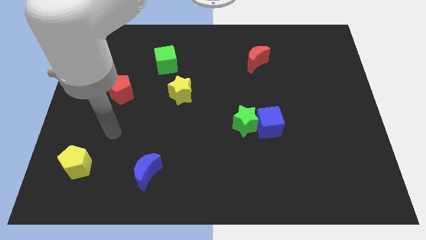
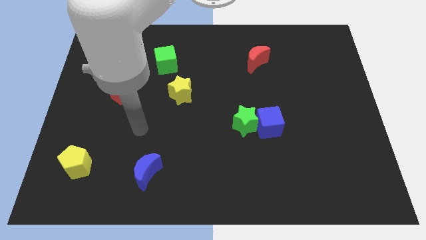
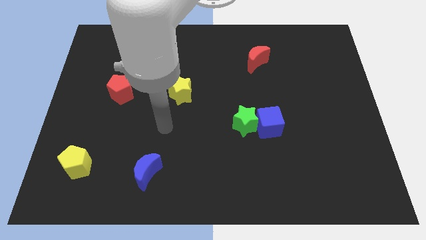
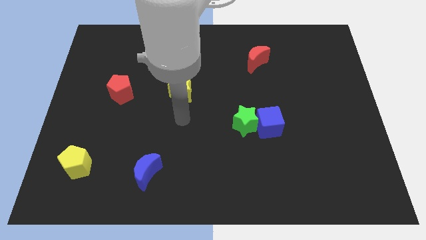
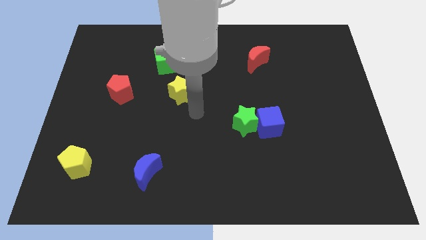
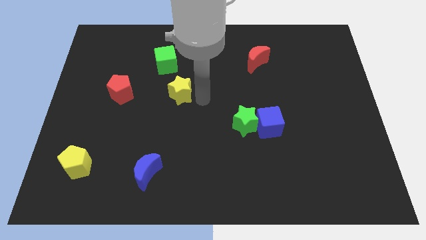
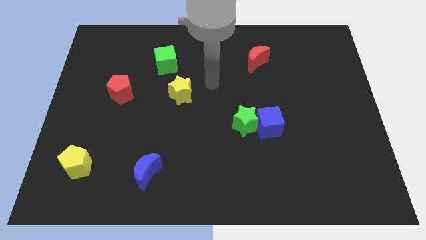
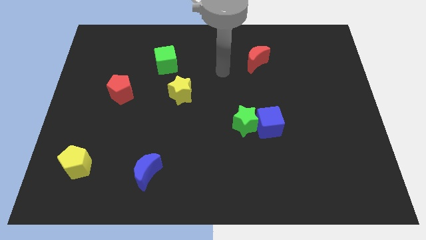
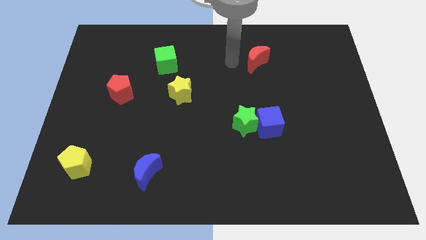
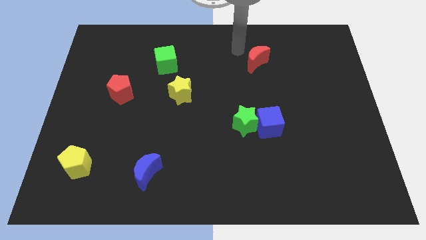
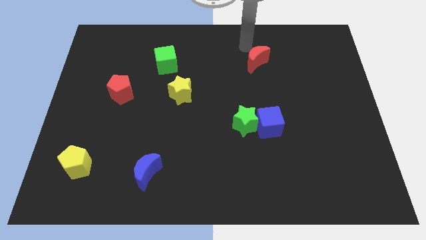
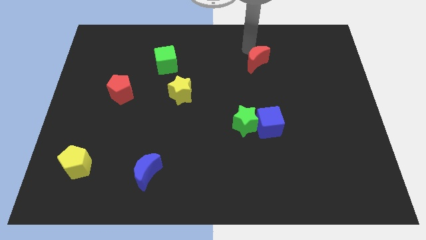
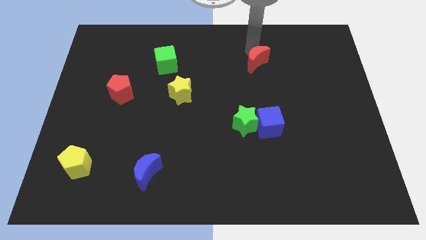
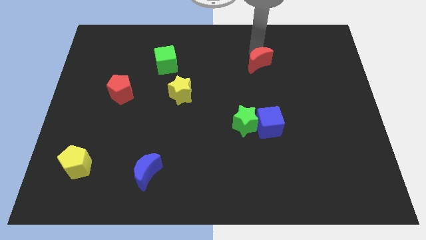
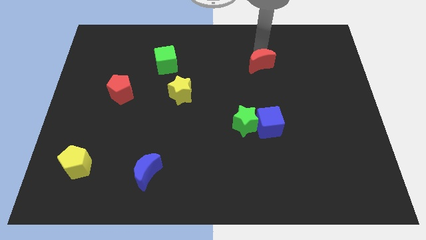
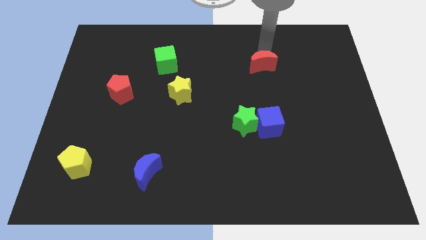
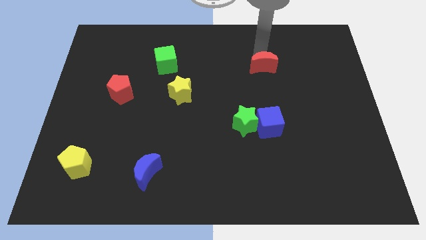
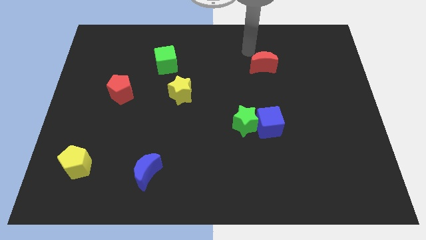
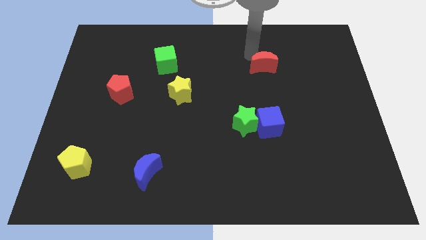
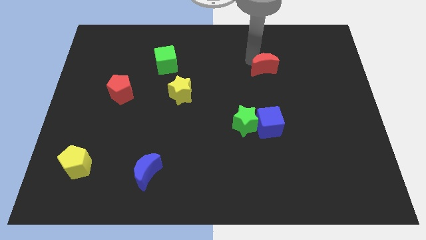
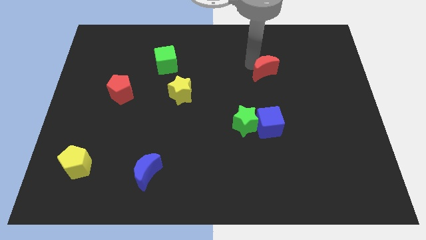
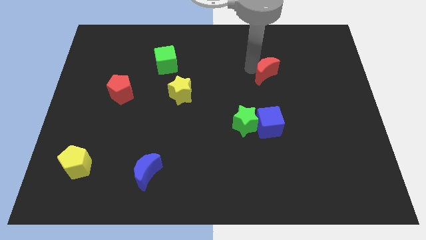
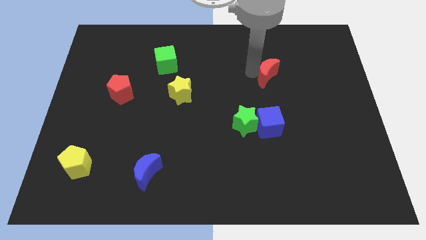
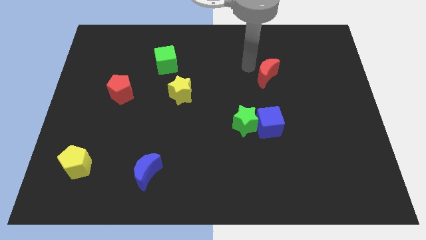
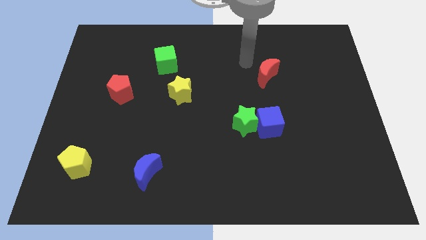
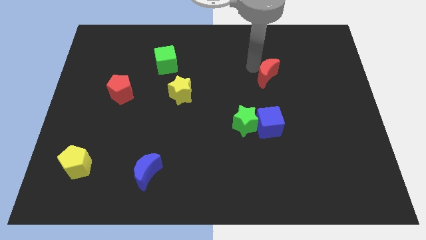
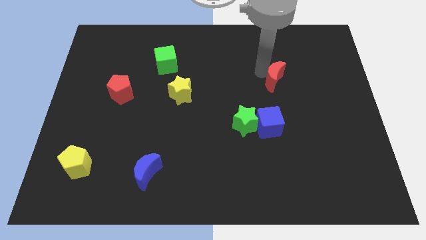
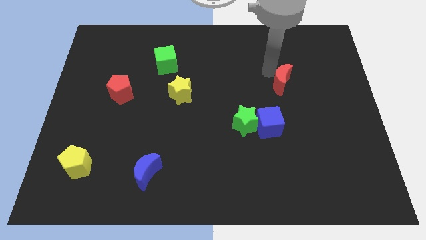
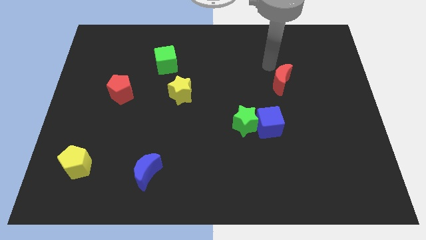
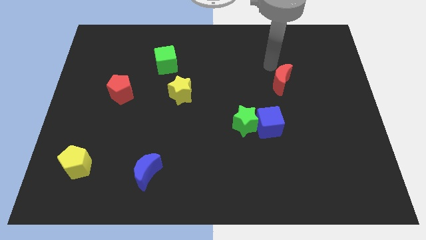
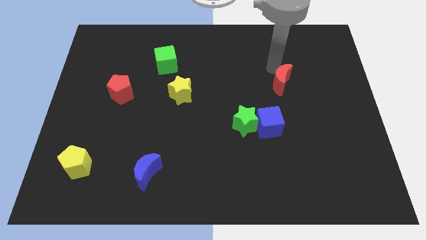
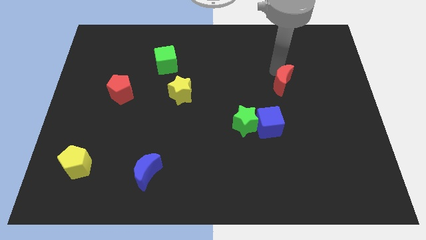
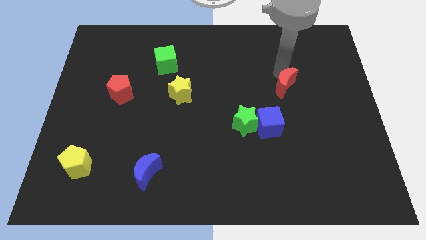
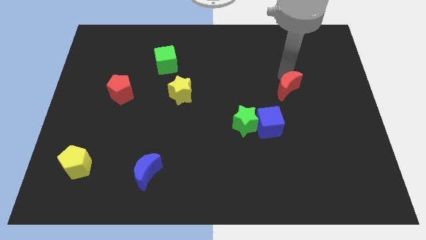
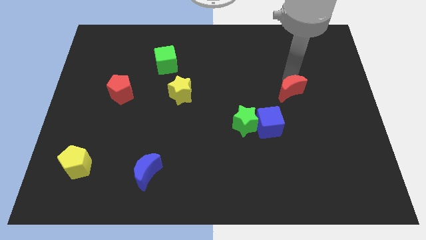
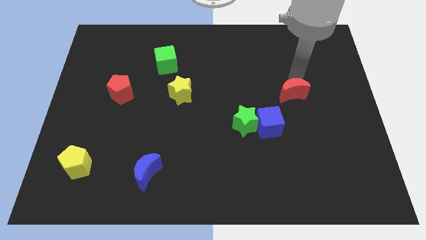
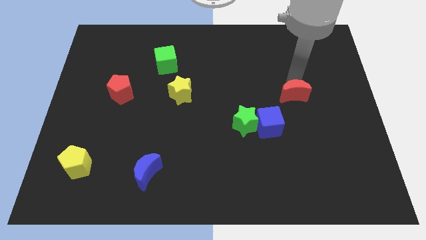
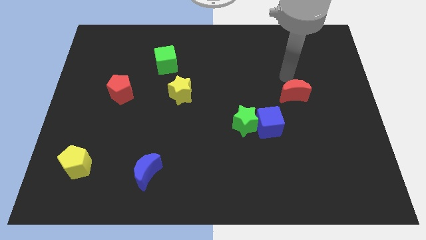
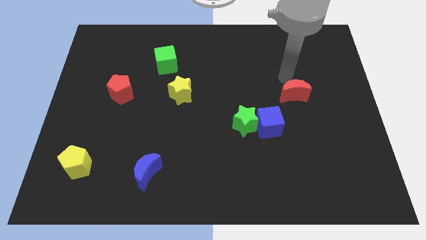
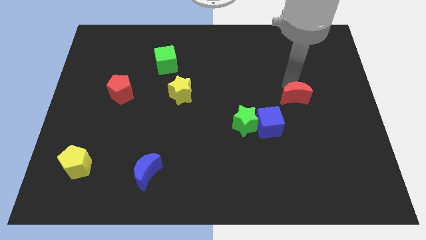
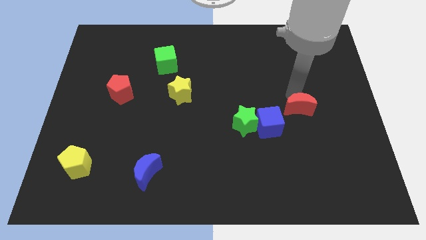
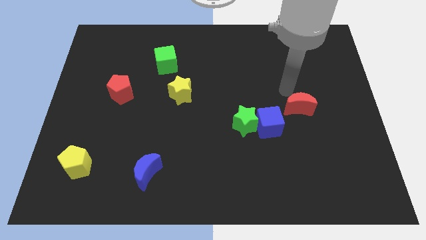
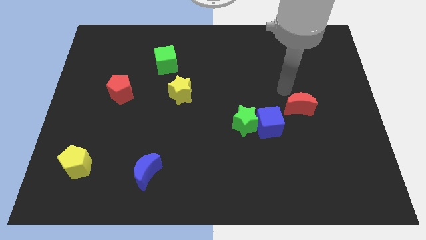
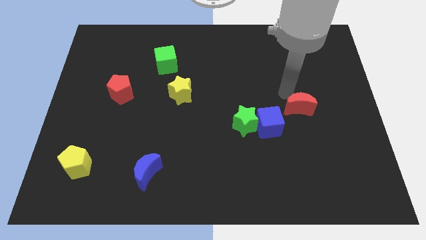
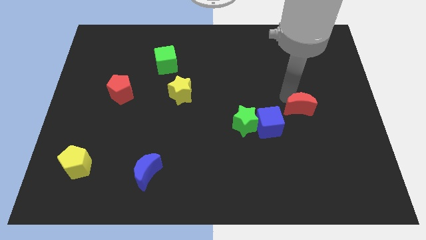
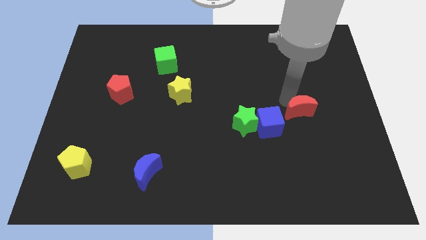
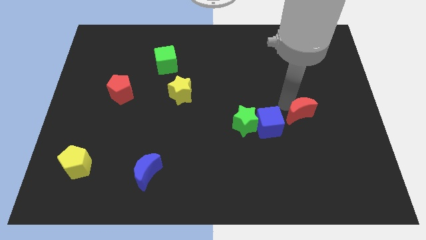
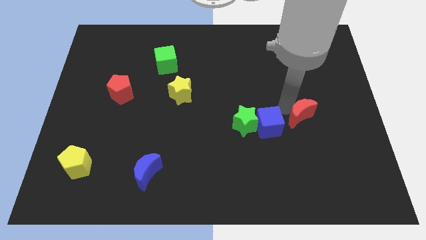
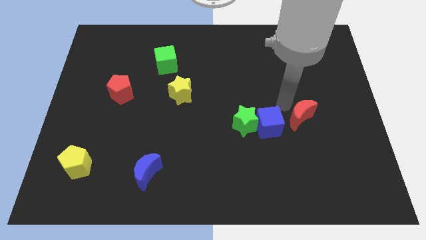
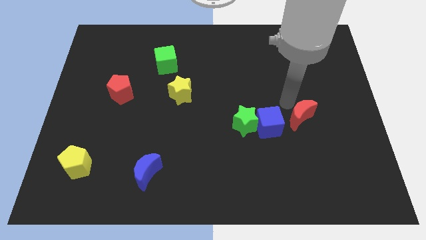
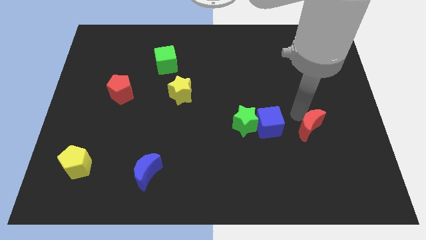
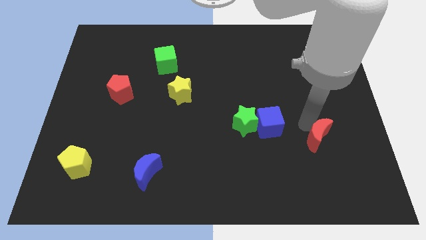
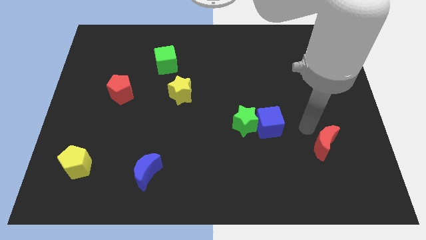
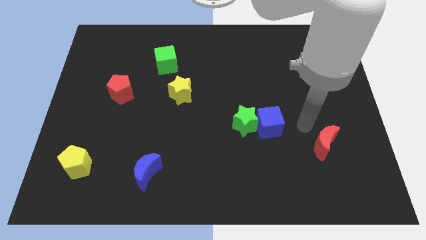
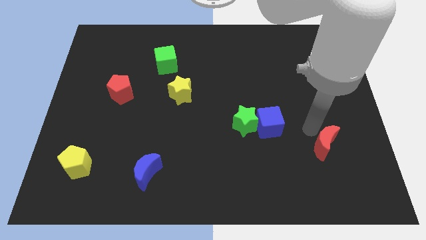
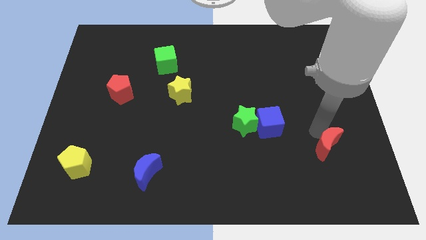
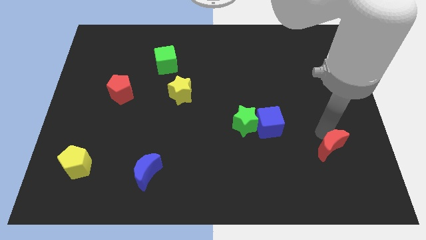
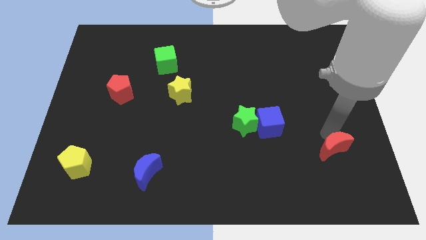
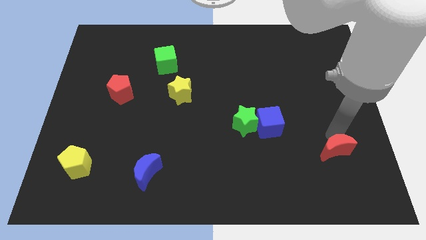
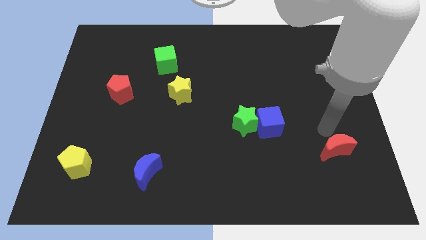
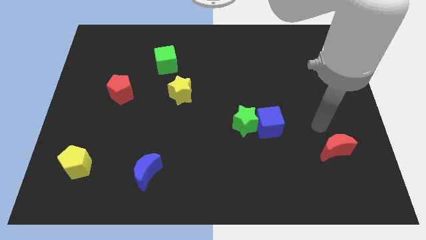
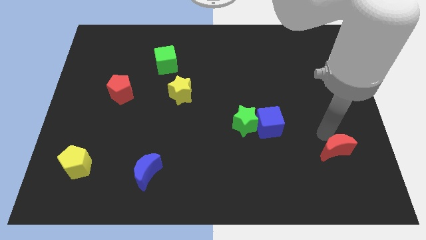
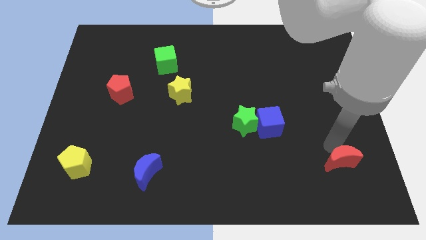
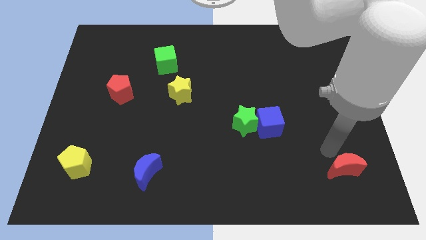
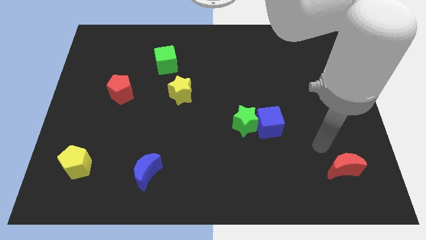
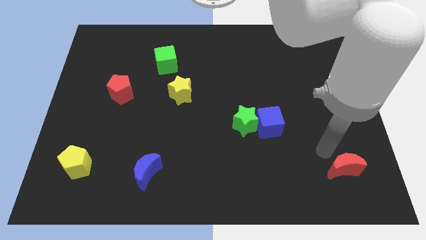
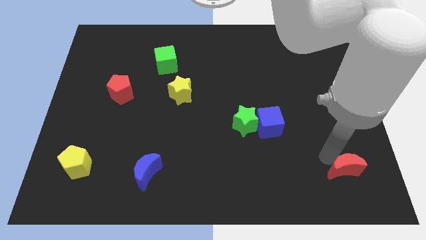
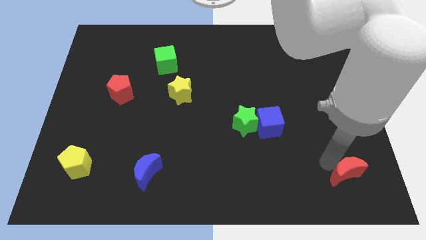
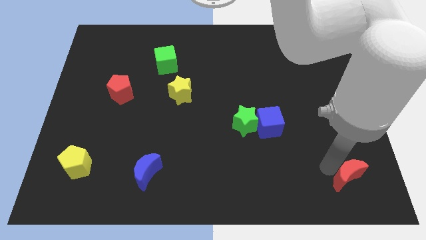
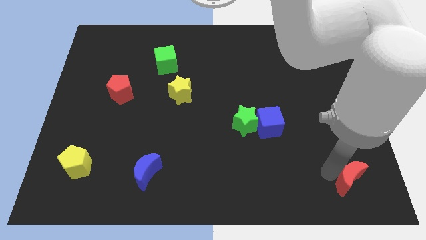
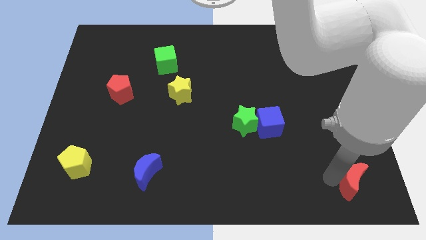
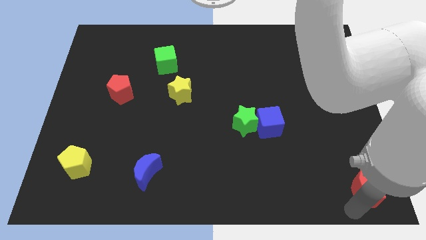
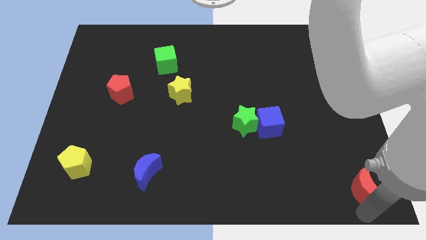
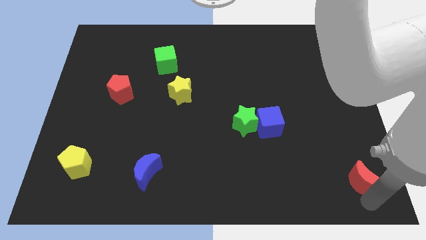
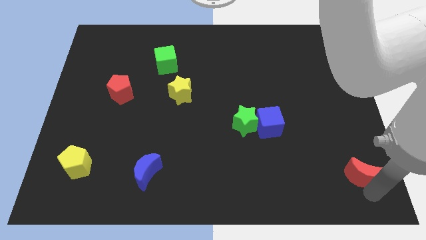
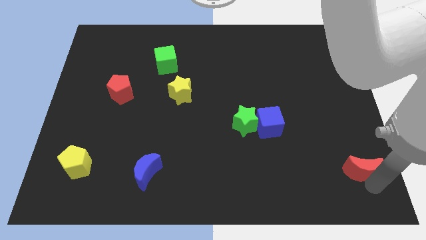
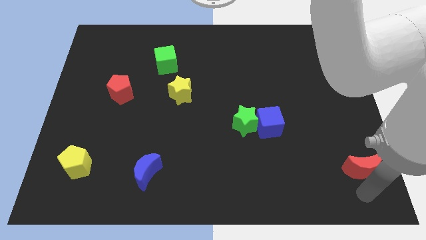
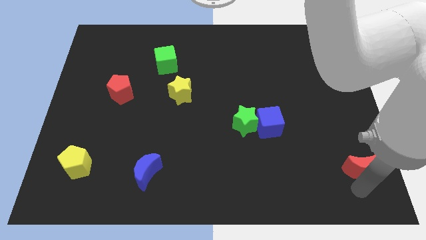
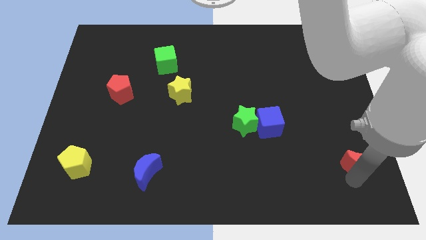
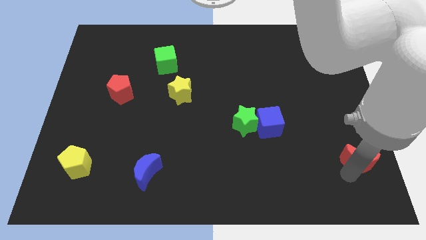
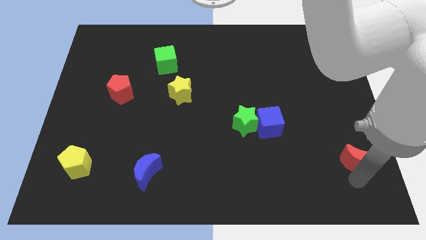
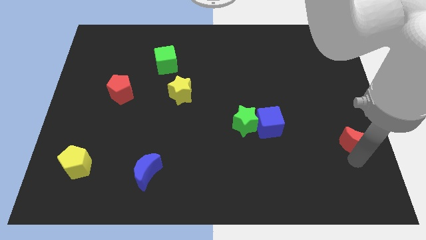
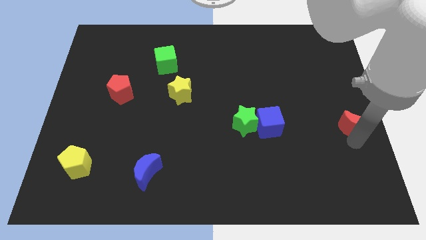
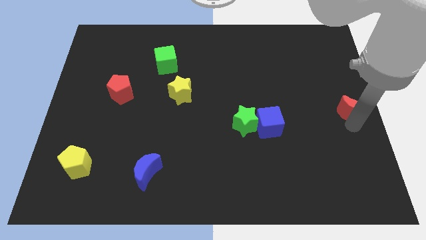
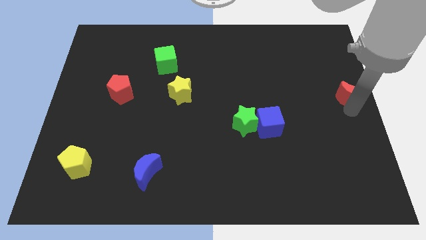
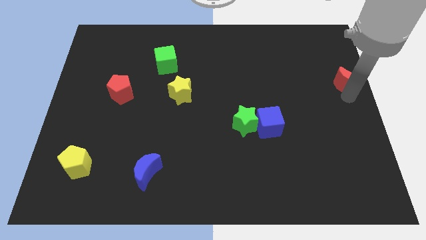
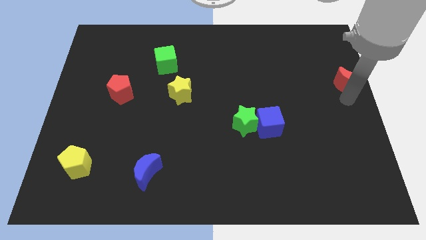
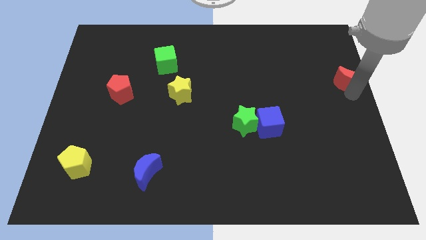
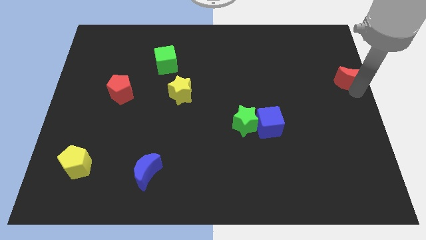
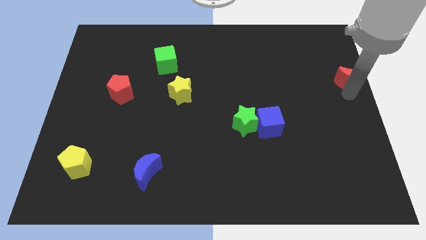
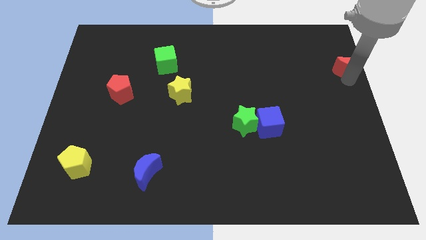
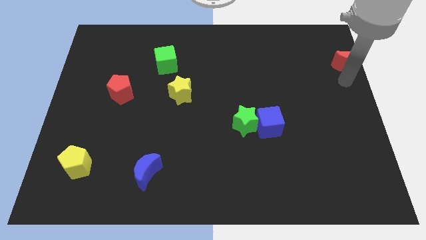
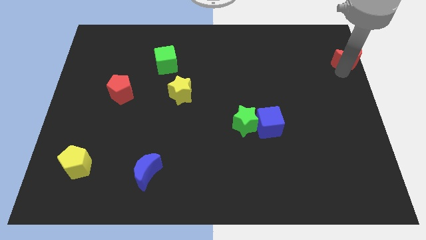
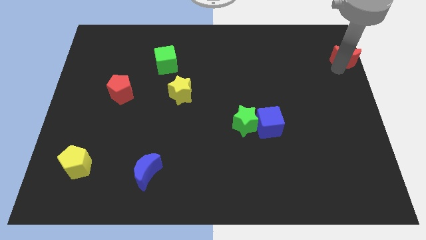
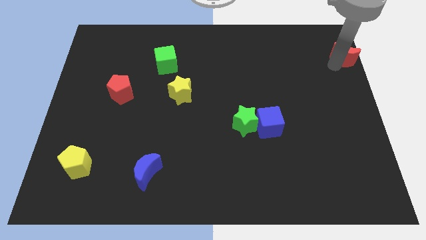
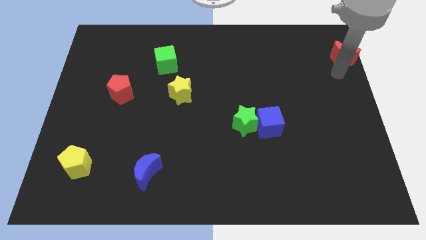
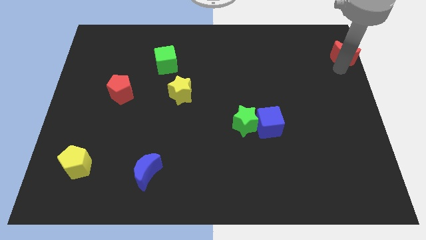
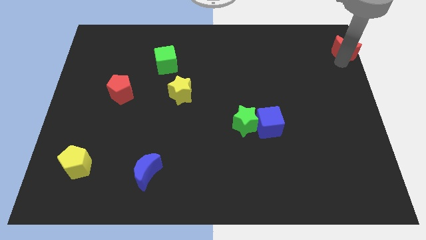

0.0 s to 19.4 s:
put the red moon to the top right
